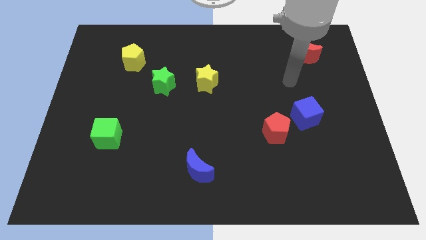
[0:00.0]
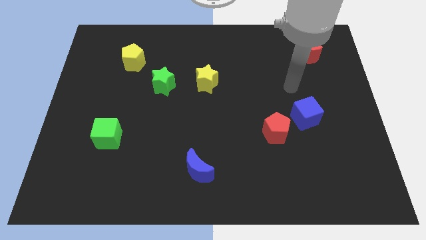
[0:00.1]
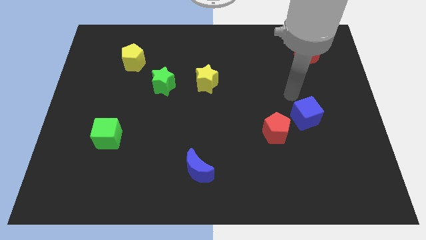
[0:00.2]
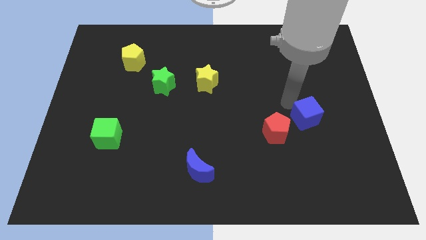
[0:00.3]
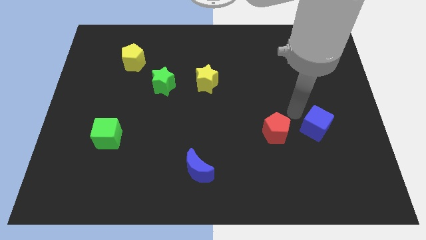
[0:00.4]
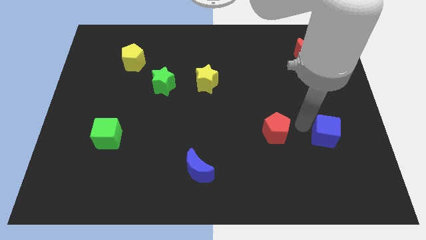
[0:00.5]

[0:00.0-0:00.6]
pull the red pentagon apart from the blue cube

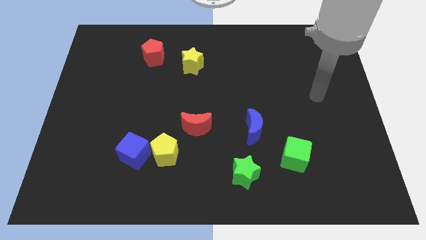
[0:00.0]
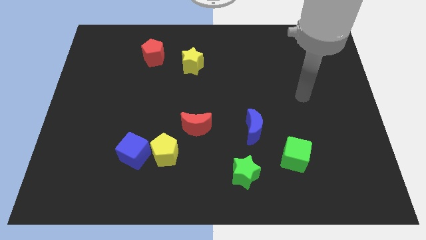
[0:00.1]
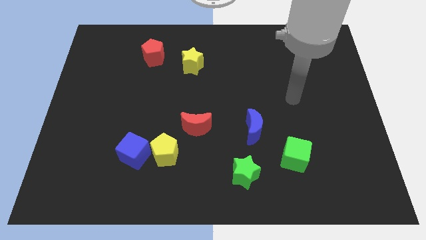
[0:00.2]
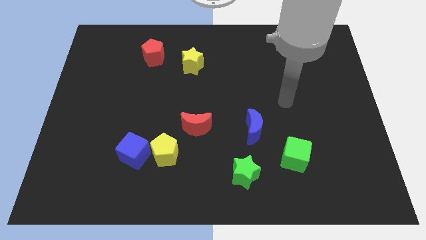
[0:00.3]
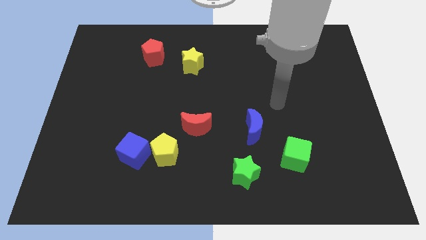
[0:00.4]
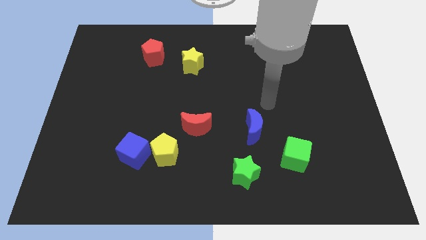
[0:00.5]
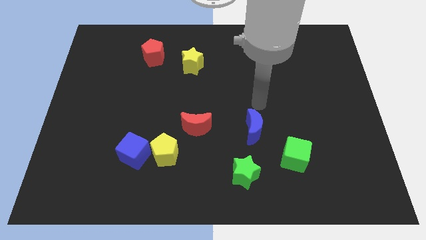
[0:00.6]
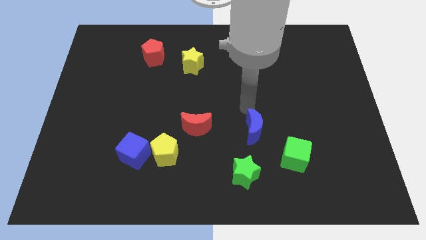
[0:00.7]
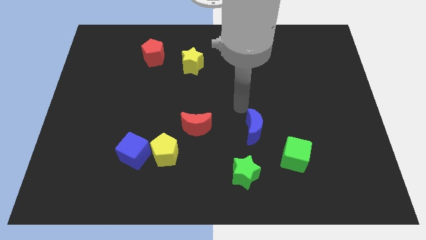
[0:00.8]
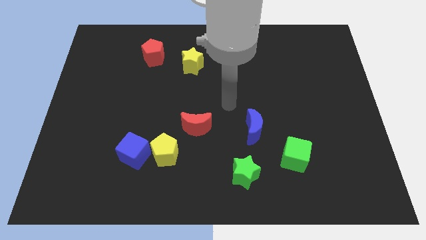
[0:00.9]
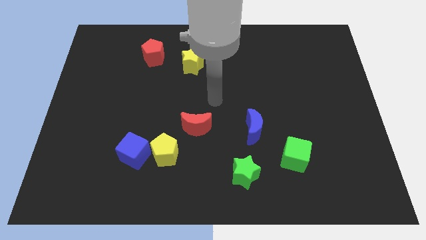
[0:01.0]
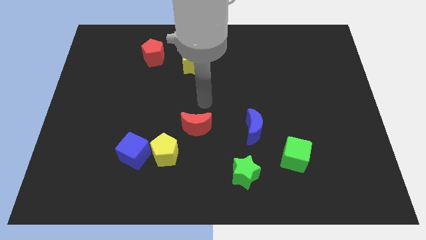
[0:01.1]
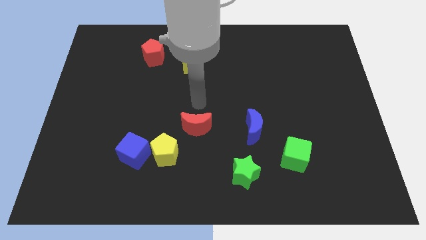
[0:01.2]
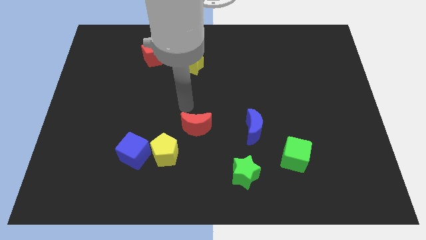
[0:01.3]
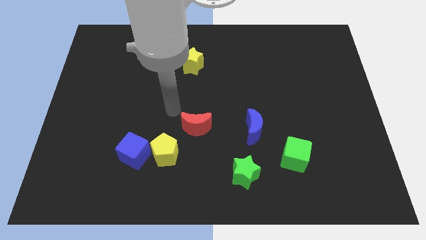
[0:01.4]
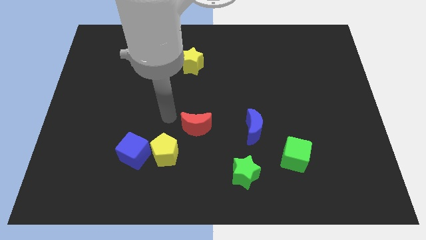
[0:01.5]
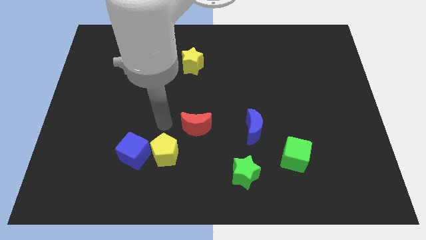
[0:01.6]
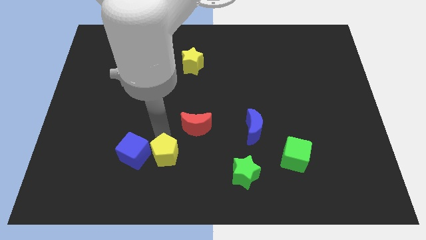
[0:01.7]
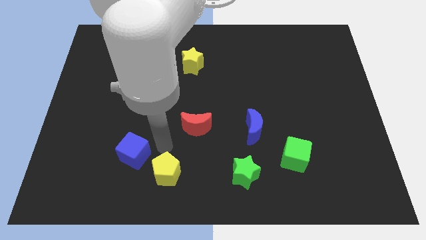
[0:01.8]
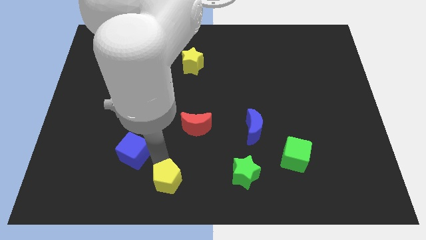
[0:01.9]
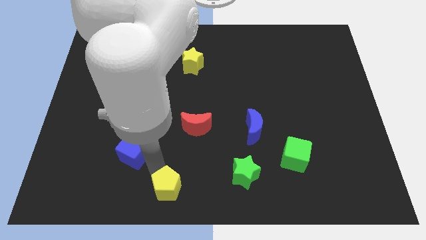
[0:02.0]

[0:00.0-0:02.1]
pull the blue cube apart from the yellow pentagon

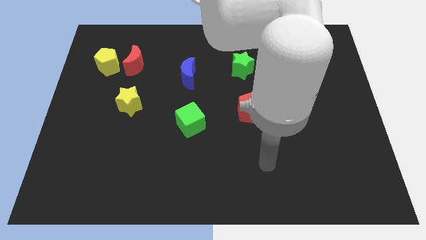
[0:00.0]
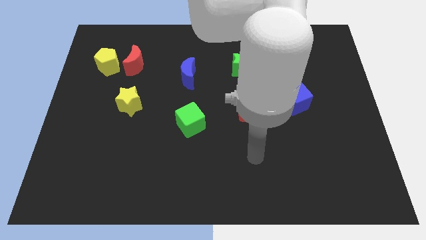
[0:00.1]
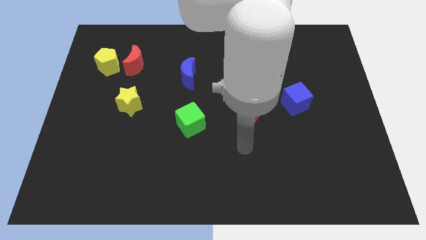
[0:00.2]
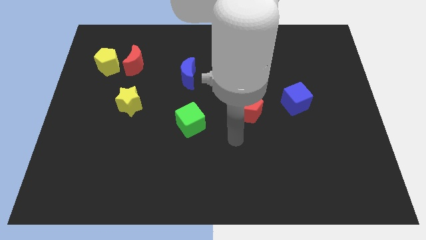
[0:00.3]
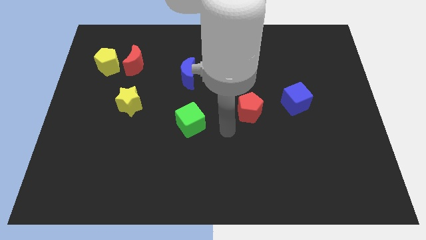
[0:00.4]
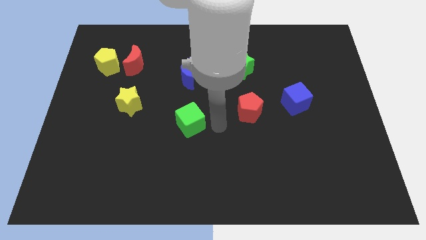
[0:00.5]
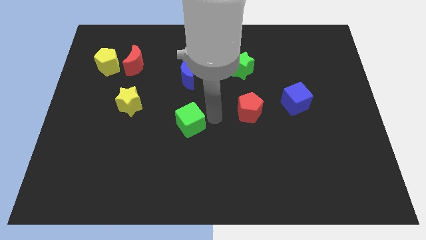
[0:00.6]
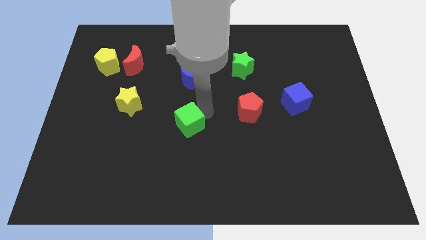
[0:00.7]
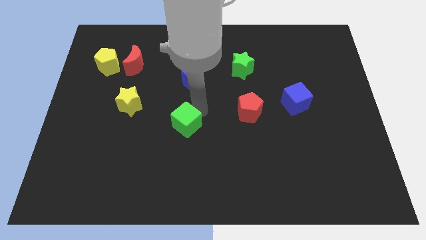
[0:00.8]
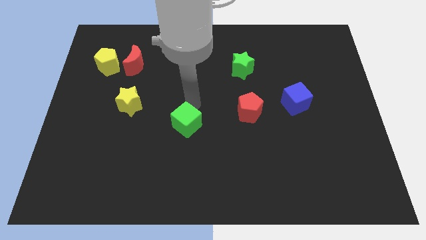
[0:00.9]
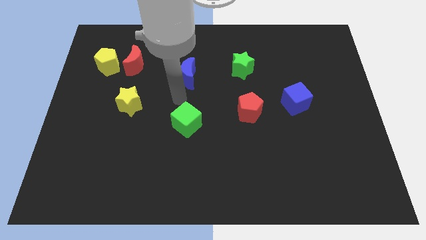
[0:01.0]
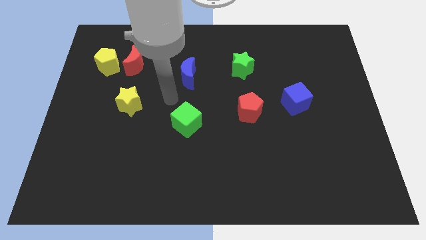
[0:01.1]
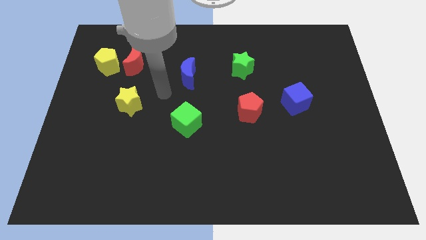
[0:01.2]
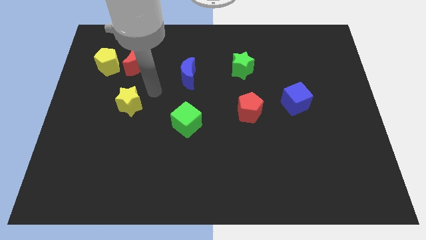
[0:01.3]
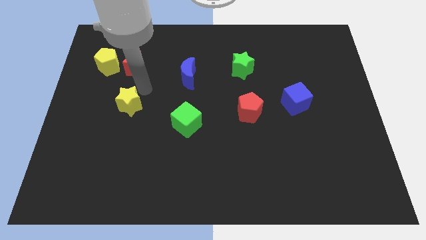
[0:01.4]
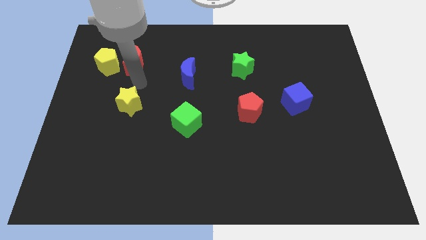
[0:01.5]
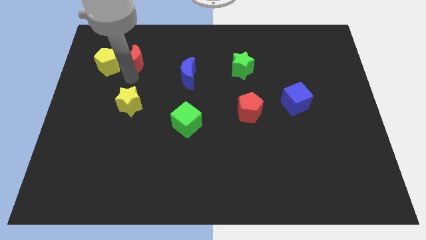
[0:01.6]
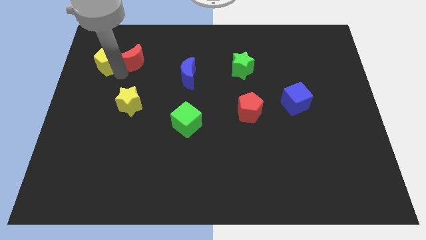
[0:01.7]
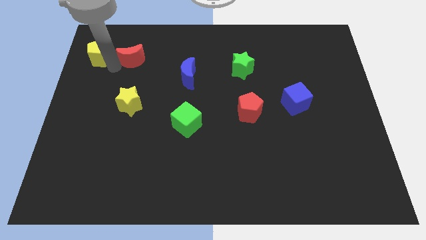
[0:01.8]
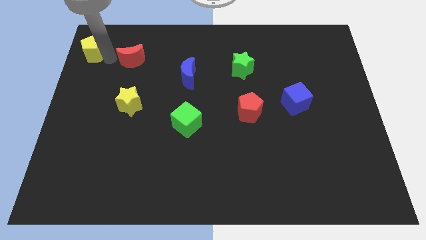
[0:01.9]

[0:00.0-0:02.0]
move the red moon away from the yellow pentagon

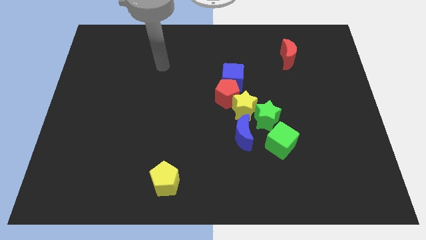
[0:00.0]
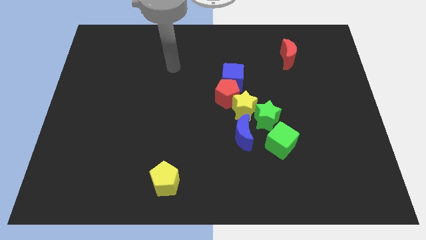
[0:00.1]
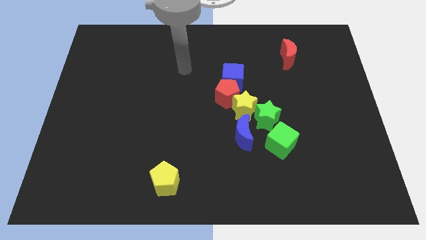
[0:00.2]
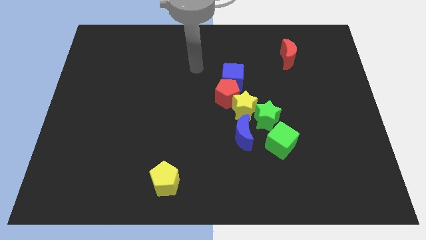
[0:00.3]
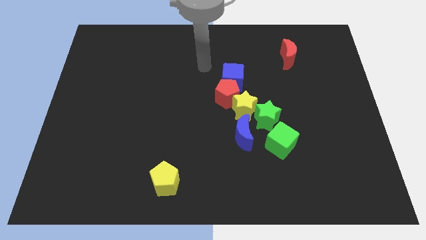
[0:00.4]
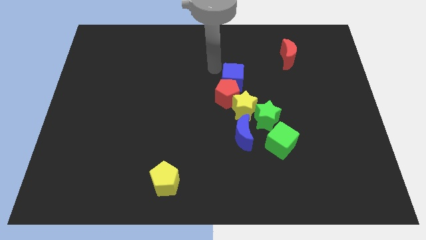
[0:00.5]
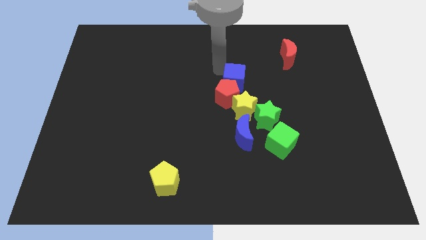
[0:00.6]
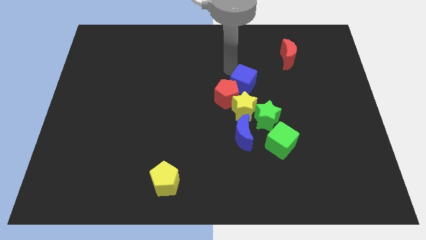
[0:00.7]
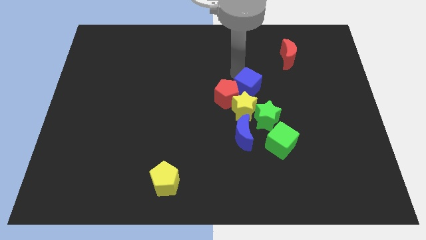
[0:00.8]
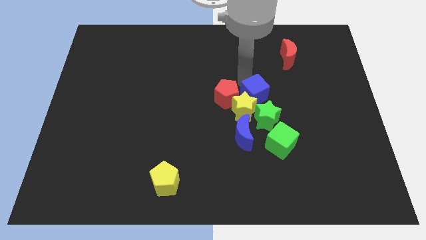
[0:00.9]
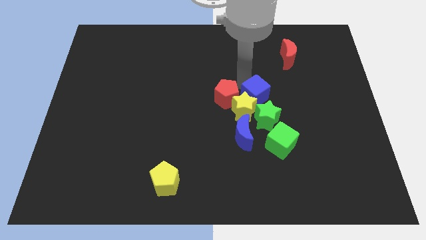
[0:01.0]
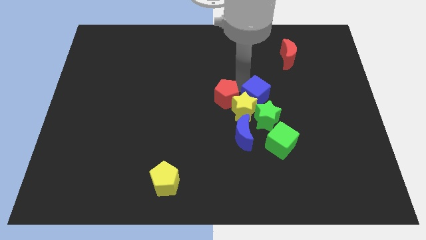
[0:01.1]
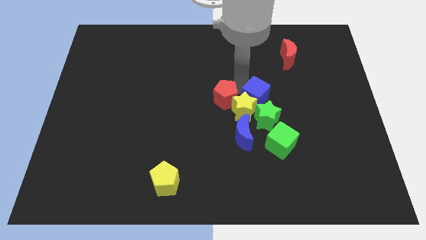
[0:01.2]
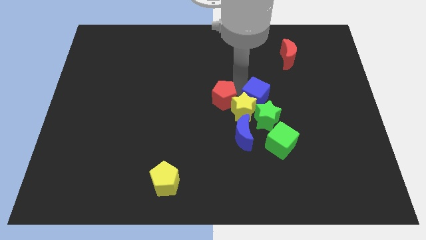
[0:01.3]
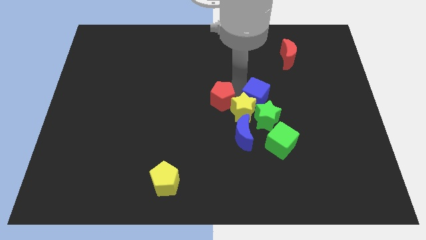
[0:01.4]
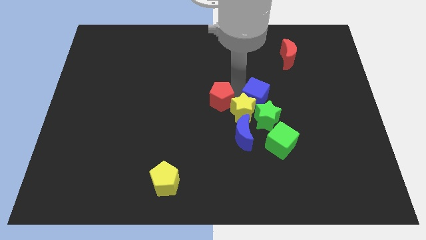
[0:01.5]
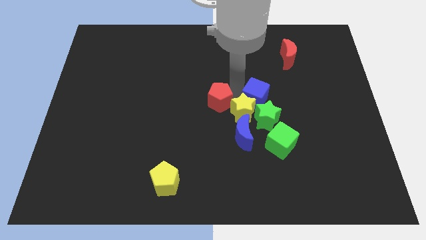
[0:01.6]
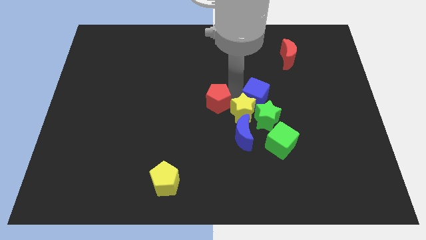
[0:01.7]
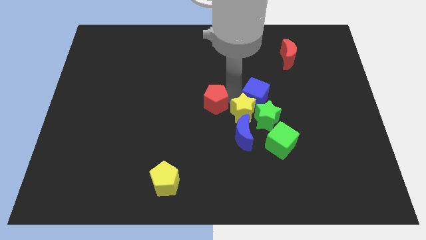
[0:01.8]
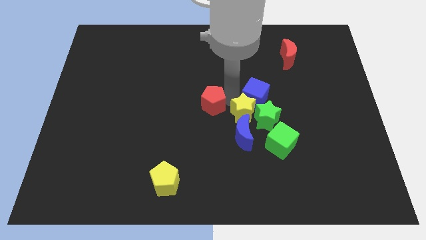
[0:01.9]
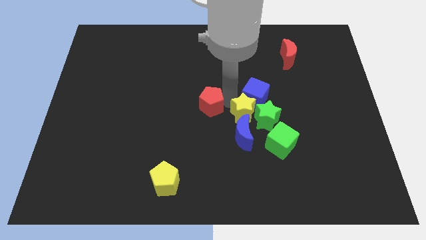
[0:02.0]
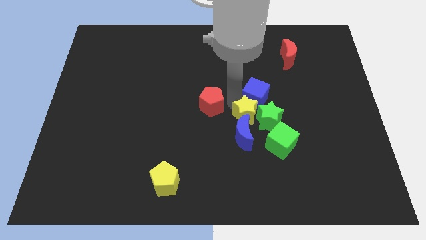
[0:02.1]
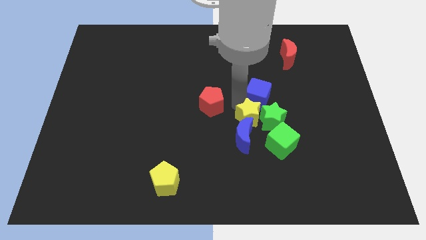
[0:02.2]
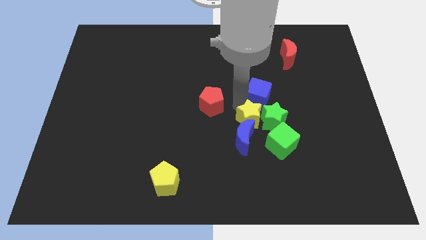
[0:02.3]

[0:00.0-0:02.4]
move the red pentagon away from the blue cube and yellow star

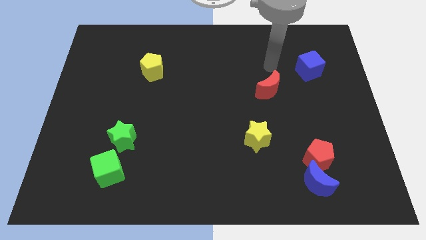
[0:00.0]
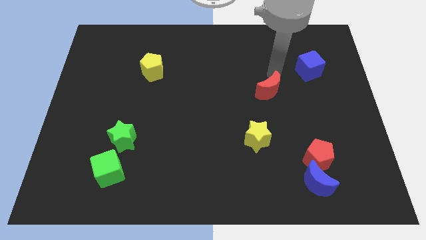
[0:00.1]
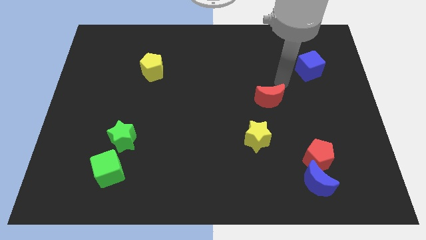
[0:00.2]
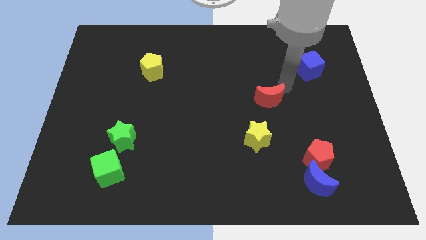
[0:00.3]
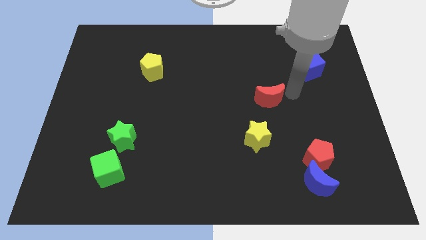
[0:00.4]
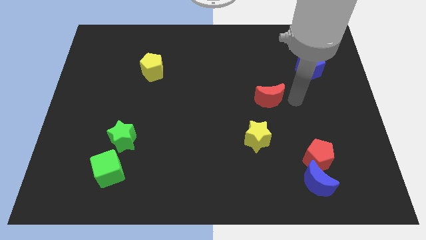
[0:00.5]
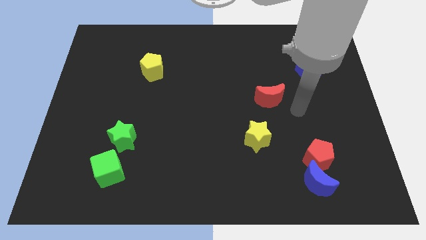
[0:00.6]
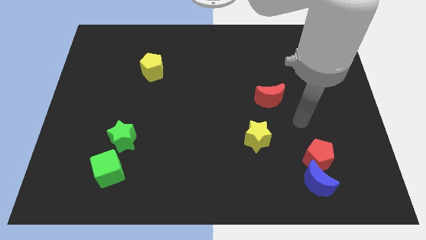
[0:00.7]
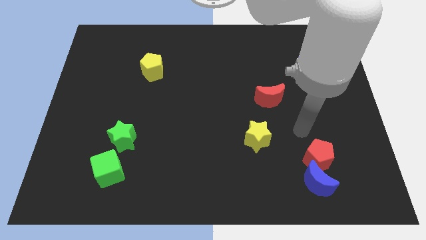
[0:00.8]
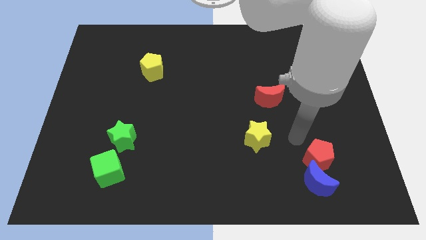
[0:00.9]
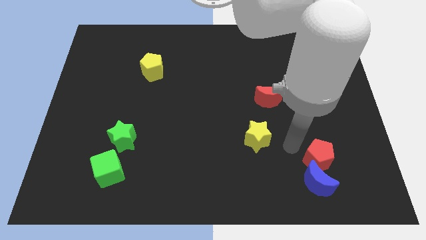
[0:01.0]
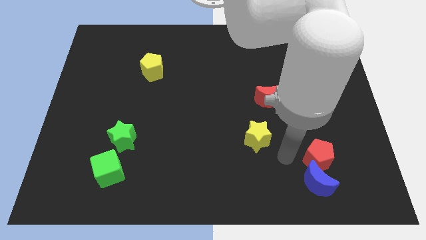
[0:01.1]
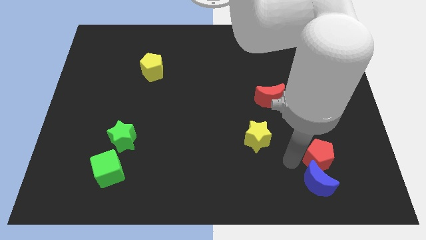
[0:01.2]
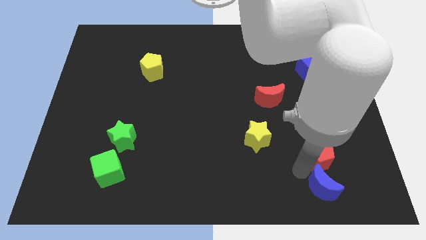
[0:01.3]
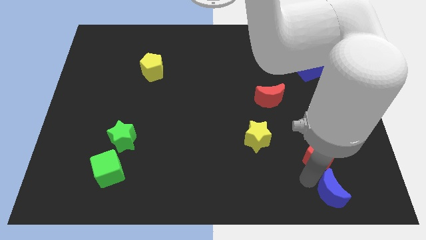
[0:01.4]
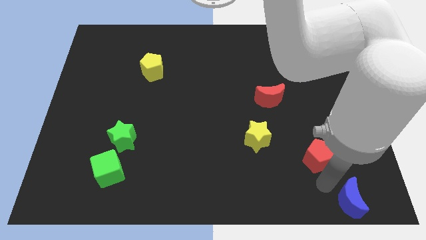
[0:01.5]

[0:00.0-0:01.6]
separate the red pentagon from the blue moon

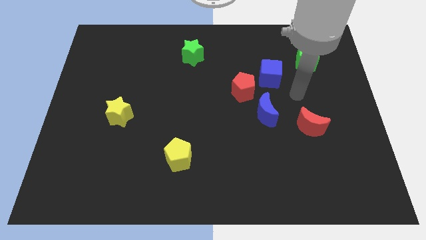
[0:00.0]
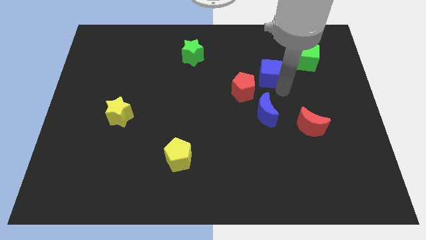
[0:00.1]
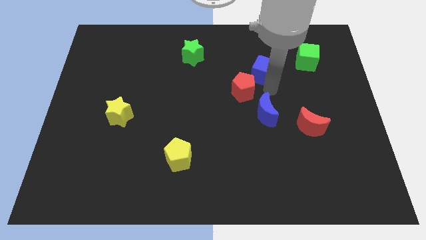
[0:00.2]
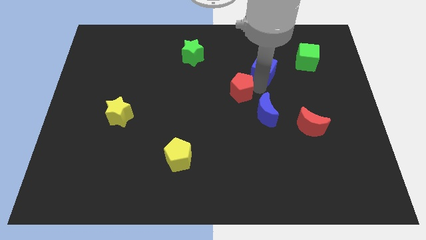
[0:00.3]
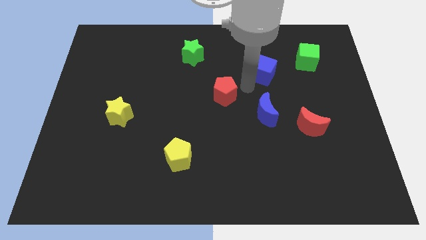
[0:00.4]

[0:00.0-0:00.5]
separate the blue cube from the red pentagon
